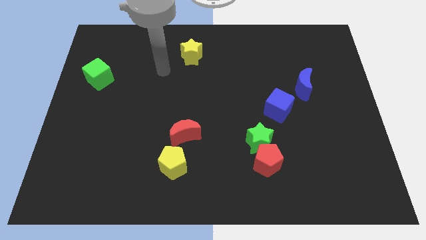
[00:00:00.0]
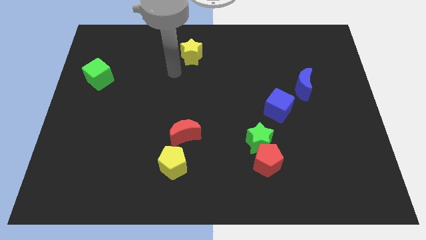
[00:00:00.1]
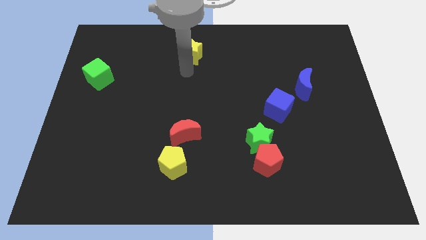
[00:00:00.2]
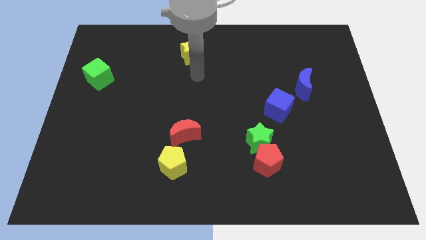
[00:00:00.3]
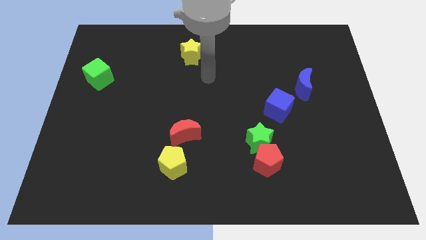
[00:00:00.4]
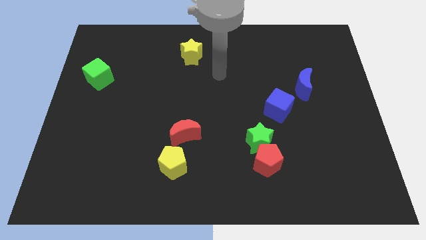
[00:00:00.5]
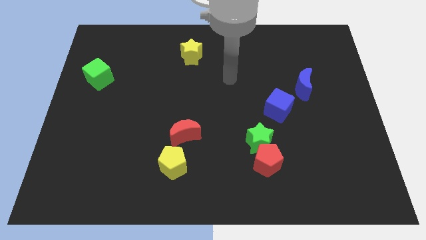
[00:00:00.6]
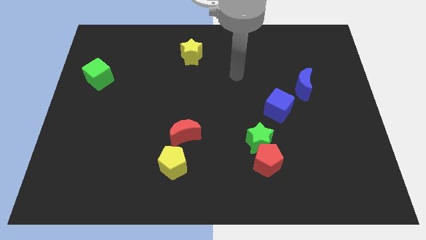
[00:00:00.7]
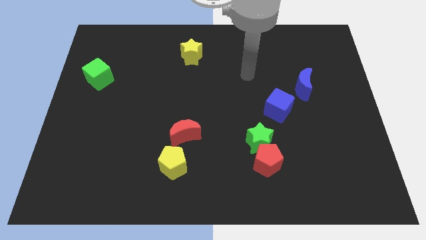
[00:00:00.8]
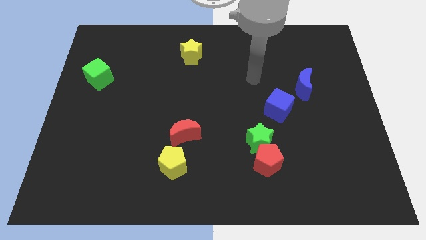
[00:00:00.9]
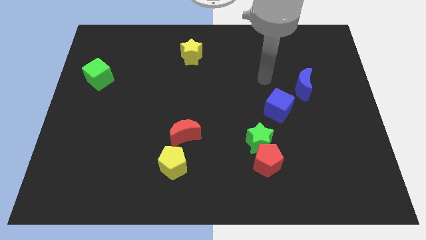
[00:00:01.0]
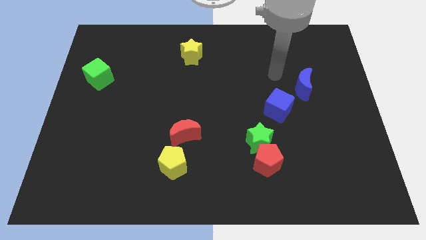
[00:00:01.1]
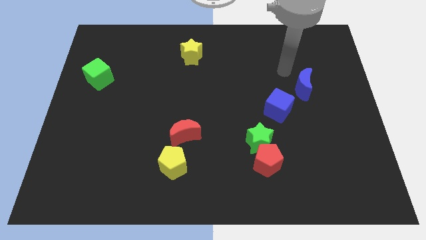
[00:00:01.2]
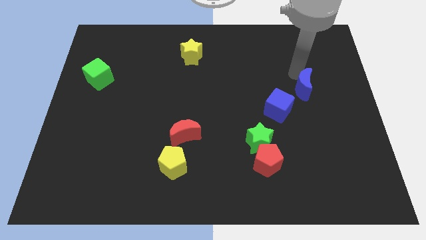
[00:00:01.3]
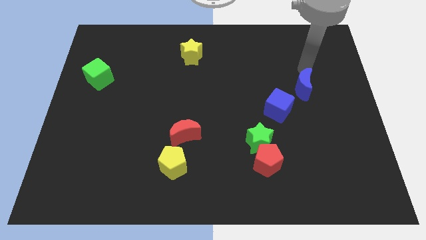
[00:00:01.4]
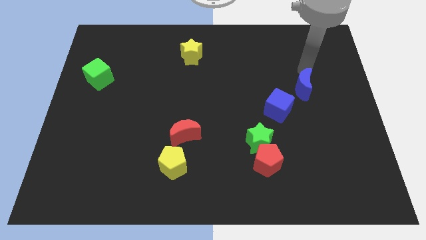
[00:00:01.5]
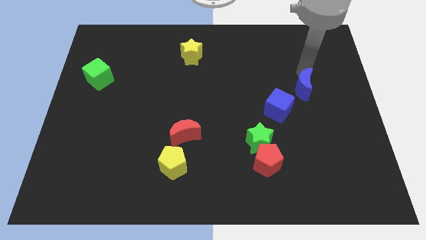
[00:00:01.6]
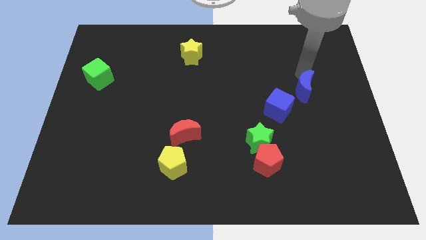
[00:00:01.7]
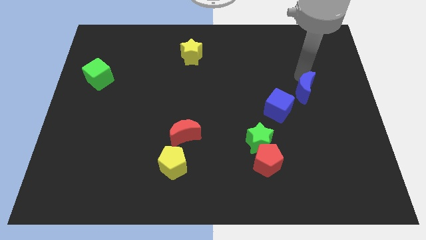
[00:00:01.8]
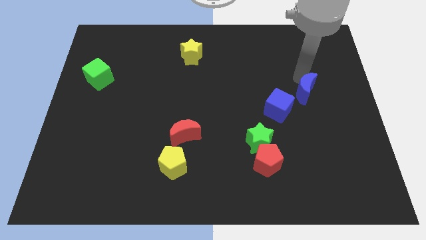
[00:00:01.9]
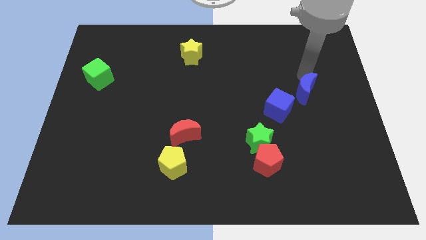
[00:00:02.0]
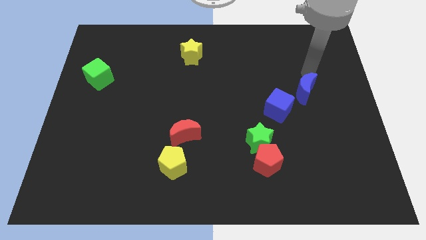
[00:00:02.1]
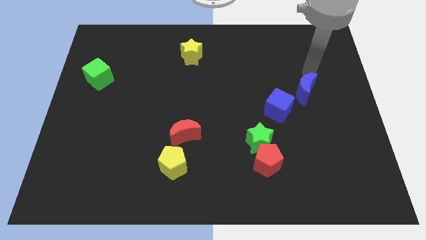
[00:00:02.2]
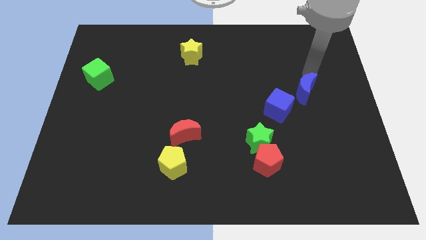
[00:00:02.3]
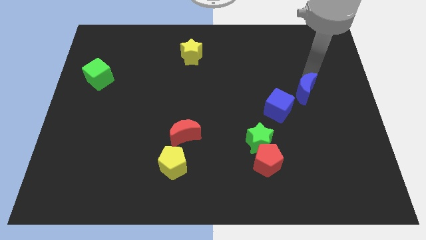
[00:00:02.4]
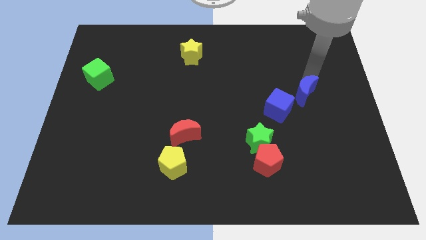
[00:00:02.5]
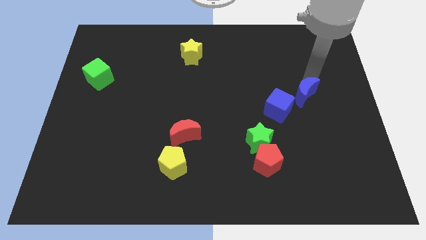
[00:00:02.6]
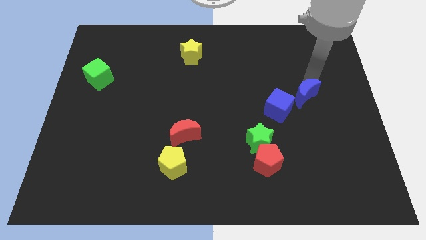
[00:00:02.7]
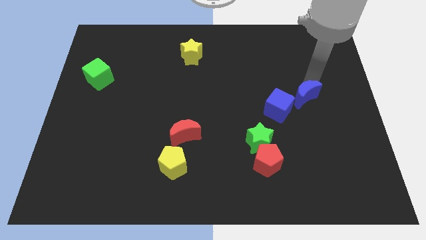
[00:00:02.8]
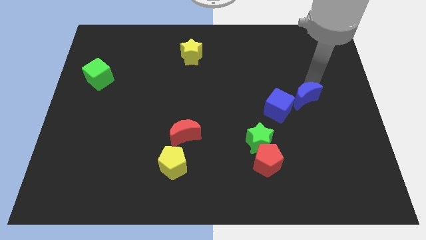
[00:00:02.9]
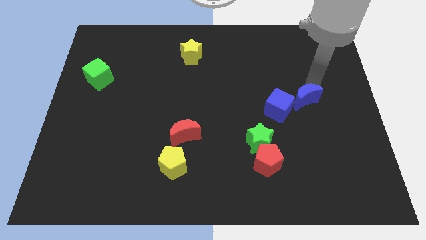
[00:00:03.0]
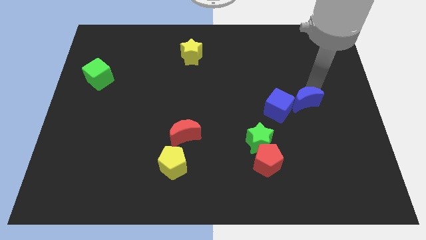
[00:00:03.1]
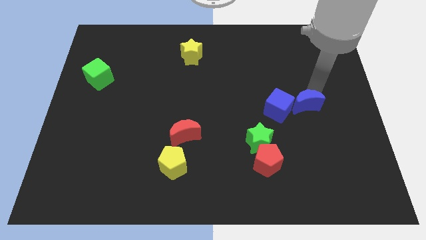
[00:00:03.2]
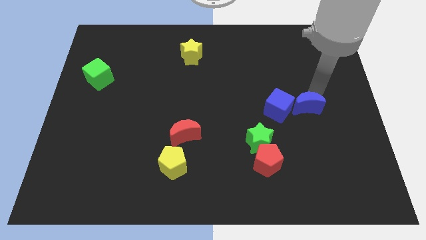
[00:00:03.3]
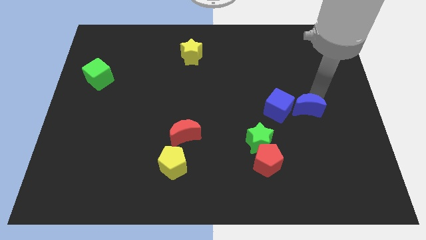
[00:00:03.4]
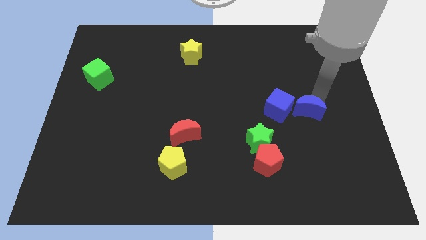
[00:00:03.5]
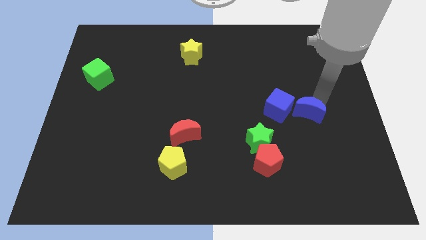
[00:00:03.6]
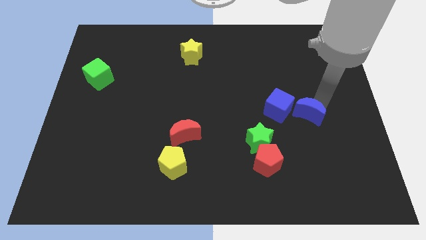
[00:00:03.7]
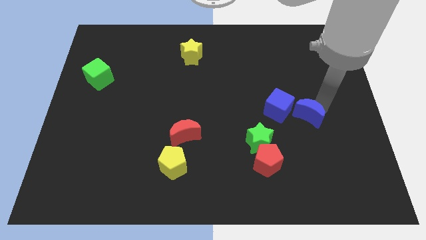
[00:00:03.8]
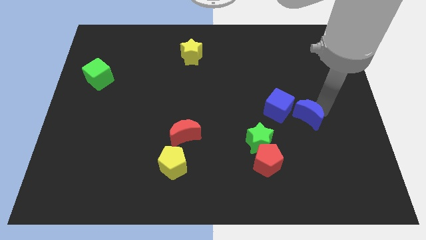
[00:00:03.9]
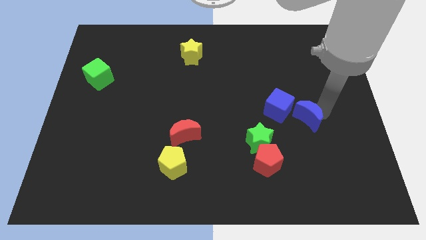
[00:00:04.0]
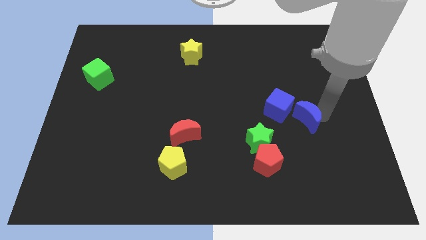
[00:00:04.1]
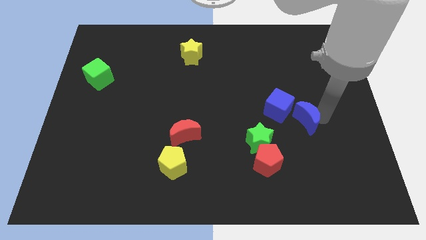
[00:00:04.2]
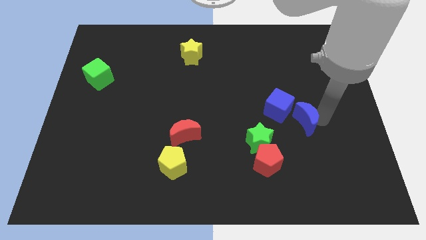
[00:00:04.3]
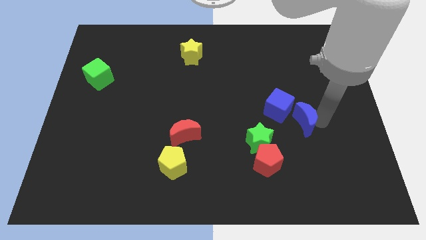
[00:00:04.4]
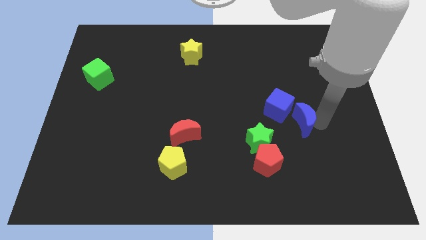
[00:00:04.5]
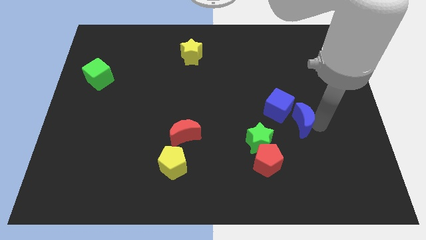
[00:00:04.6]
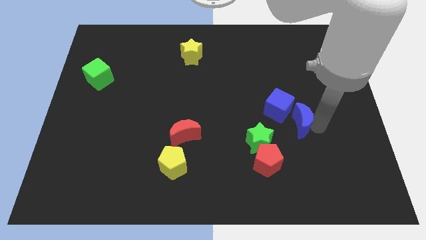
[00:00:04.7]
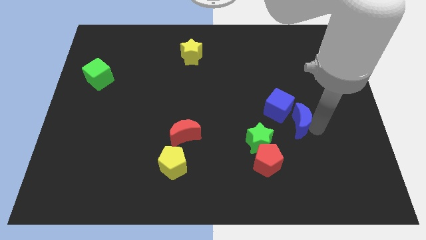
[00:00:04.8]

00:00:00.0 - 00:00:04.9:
put the blue moon to the top right side of the red pentagon

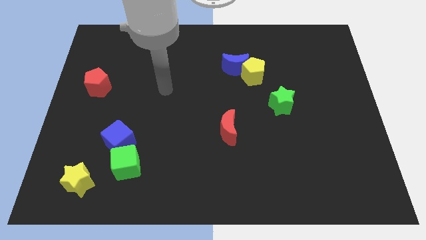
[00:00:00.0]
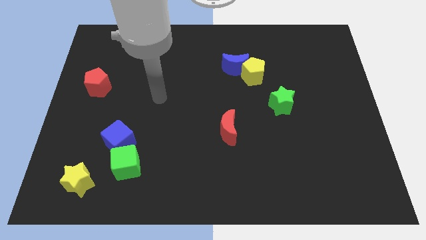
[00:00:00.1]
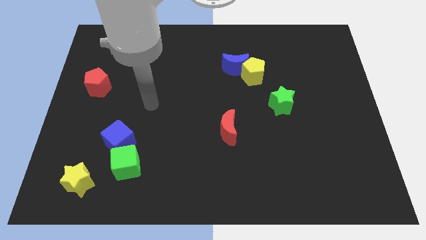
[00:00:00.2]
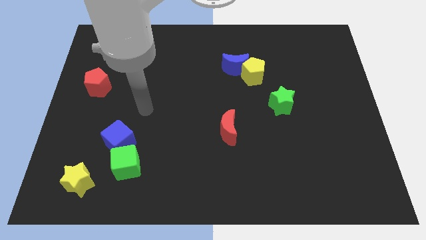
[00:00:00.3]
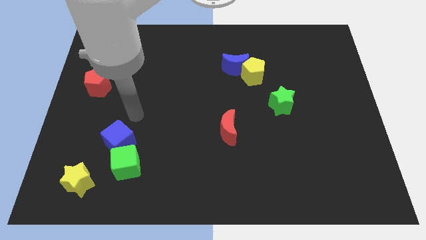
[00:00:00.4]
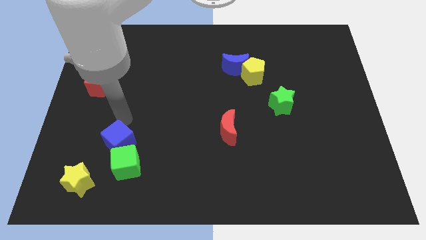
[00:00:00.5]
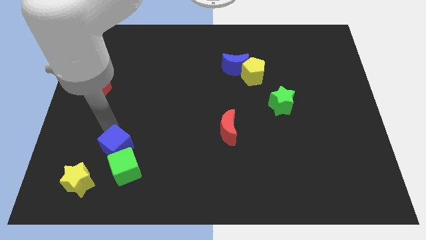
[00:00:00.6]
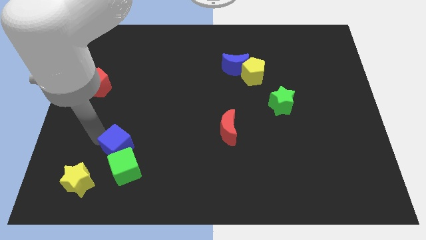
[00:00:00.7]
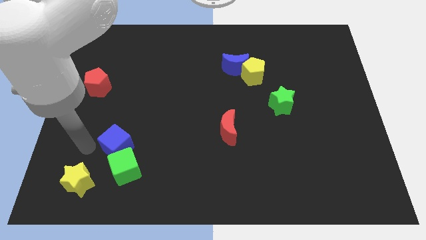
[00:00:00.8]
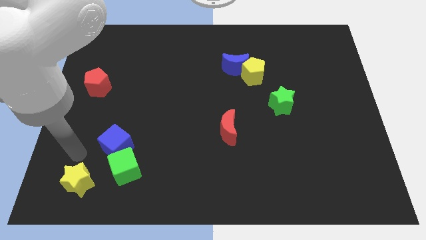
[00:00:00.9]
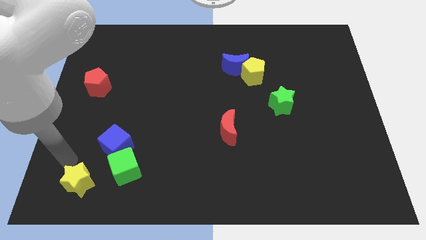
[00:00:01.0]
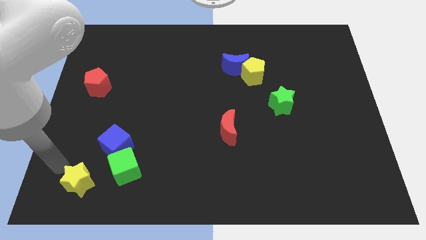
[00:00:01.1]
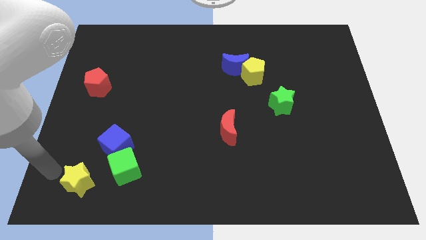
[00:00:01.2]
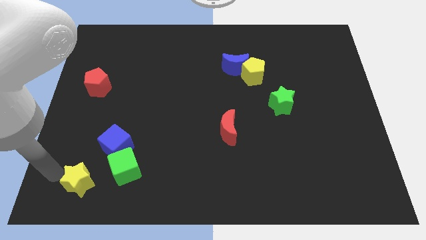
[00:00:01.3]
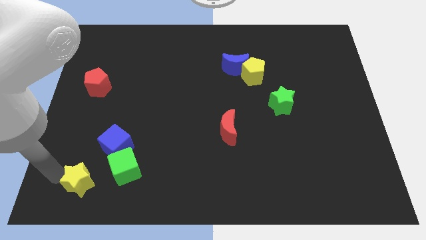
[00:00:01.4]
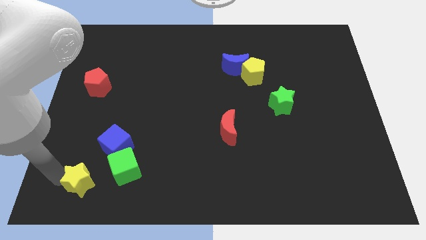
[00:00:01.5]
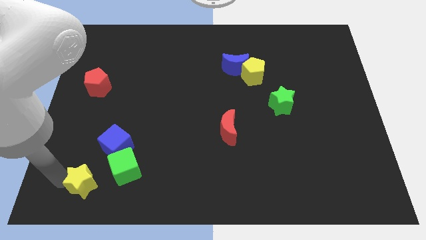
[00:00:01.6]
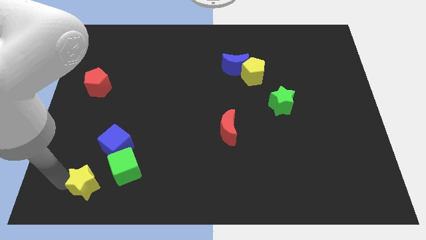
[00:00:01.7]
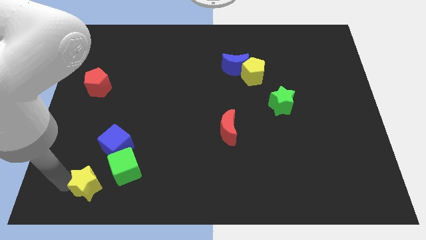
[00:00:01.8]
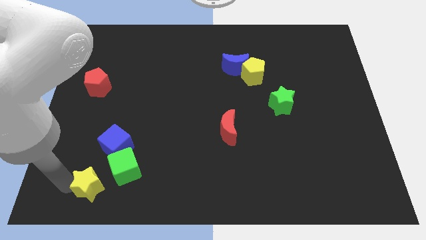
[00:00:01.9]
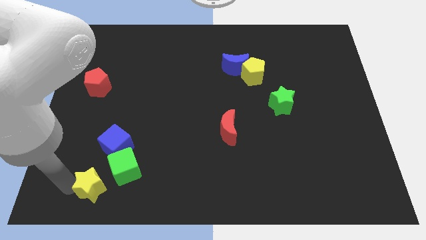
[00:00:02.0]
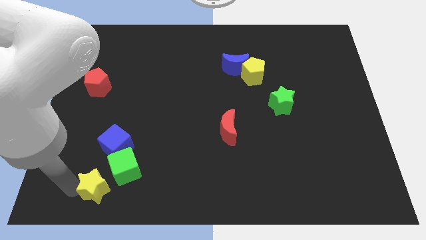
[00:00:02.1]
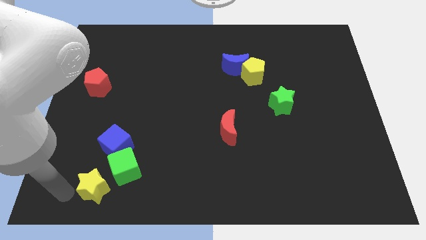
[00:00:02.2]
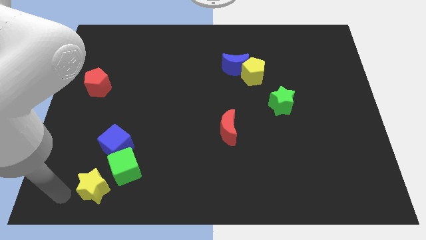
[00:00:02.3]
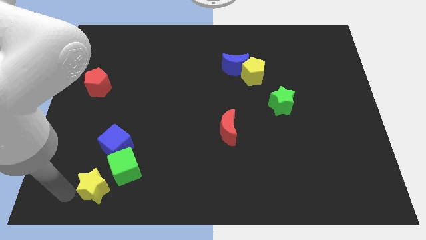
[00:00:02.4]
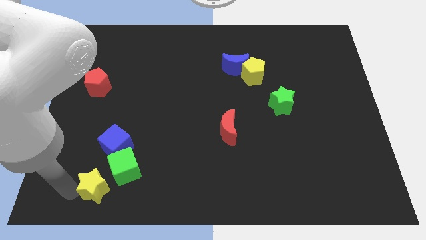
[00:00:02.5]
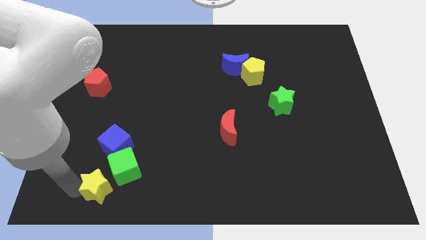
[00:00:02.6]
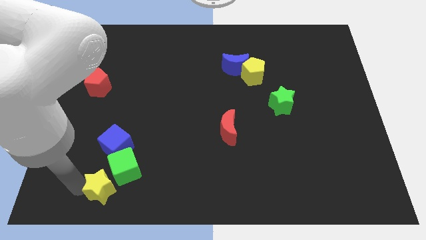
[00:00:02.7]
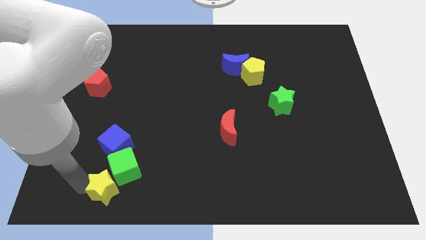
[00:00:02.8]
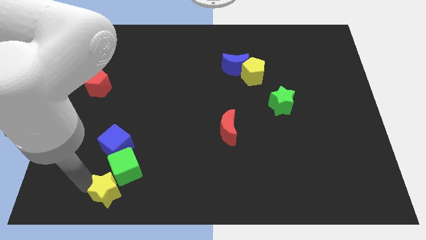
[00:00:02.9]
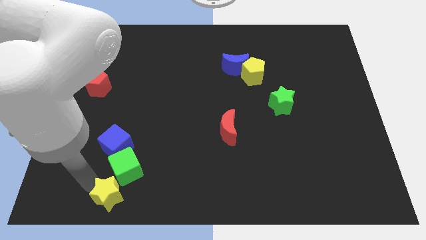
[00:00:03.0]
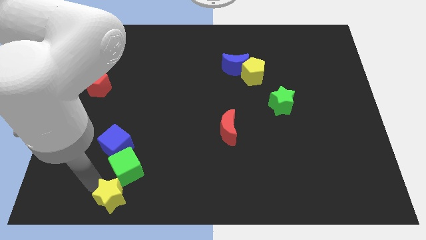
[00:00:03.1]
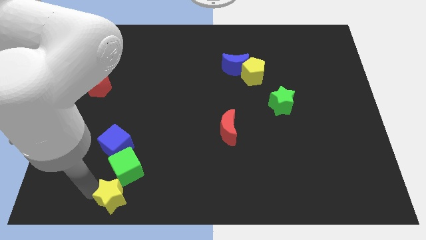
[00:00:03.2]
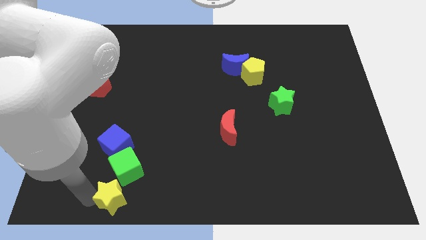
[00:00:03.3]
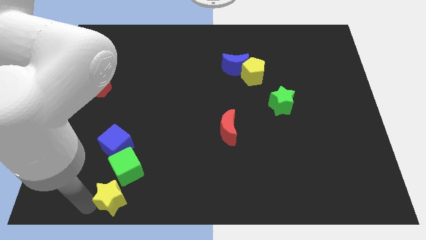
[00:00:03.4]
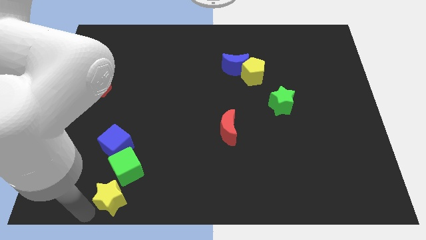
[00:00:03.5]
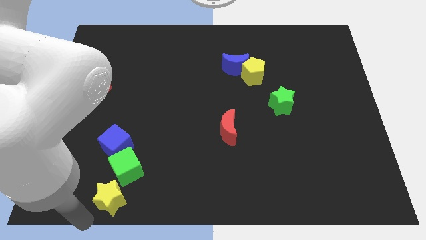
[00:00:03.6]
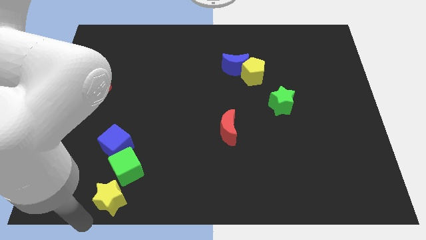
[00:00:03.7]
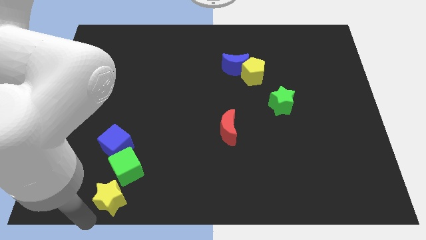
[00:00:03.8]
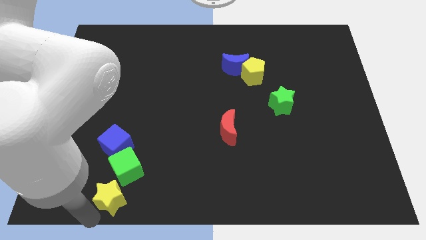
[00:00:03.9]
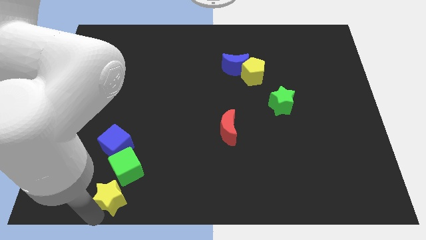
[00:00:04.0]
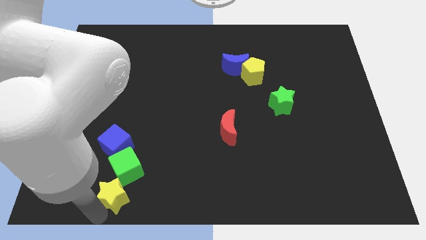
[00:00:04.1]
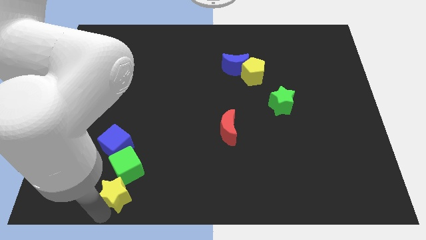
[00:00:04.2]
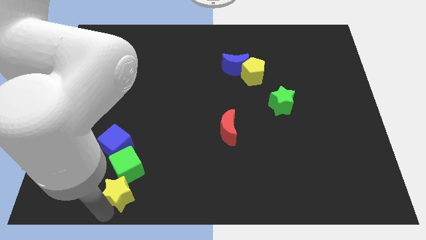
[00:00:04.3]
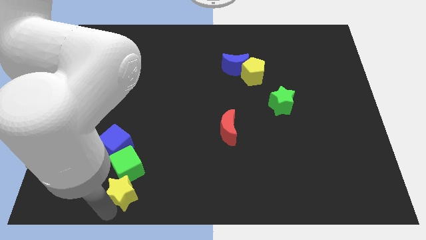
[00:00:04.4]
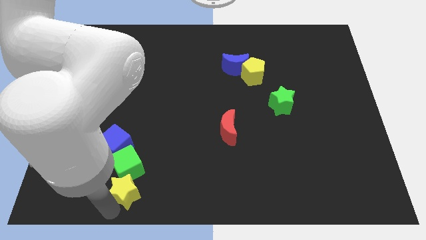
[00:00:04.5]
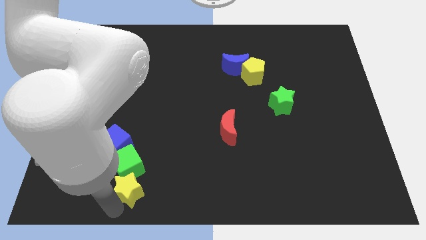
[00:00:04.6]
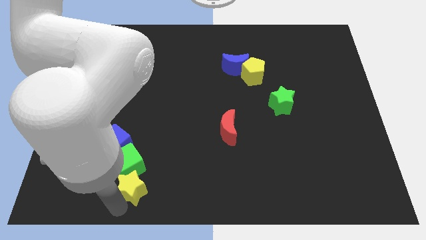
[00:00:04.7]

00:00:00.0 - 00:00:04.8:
push the yellow star to the bottom right side of the blue cube
